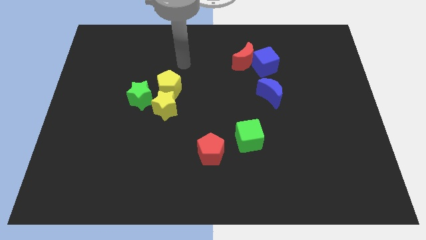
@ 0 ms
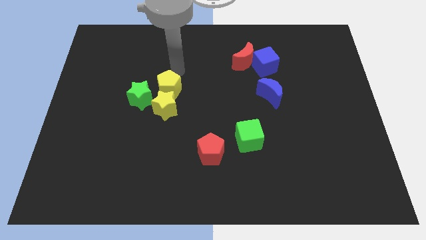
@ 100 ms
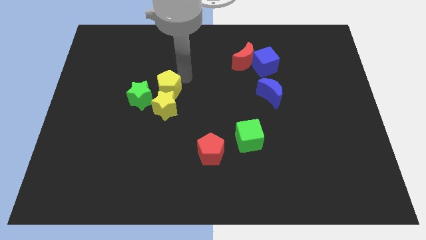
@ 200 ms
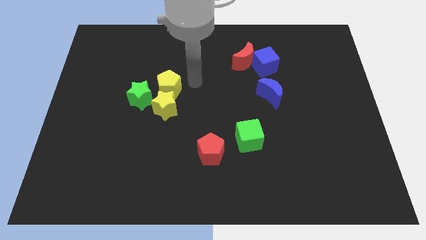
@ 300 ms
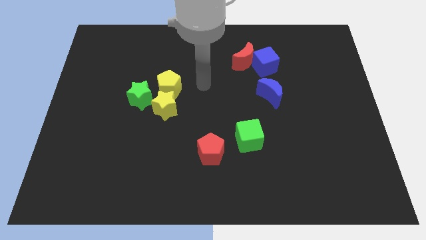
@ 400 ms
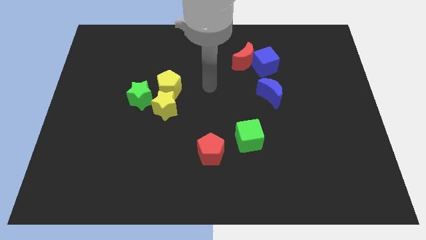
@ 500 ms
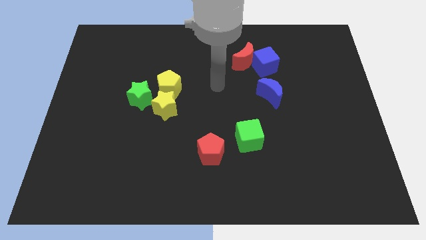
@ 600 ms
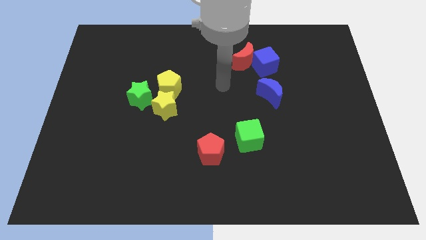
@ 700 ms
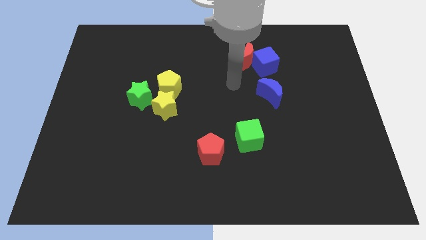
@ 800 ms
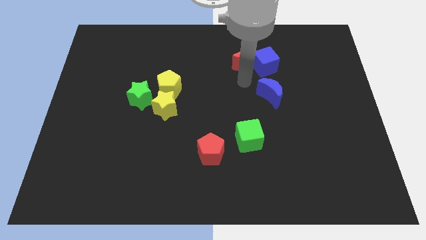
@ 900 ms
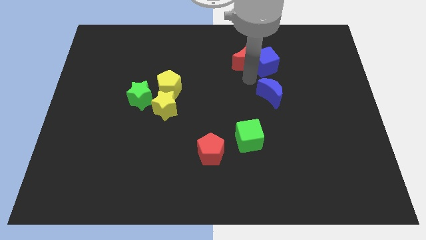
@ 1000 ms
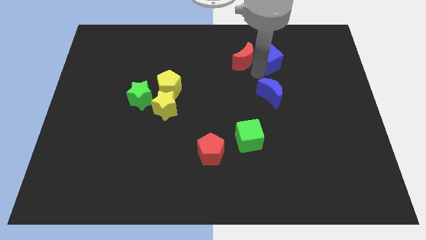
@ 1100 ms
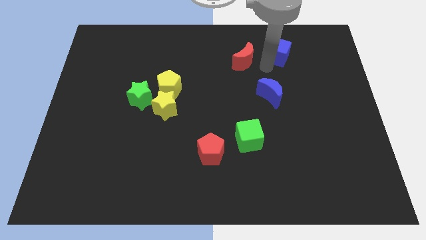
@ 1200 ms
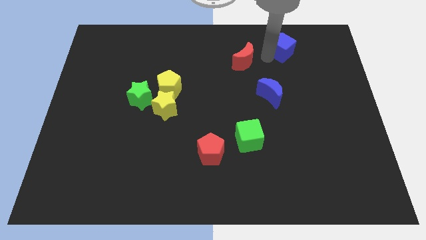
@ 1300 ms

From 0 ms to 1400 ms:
move the red moon away from the blue cube

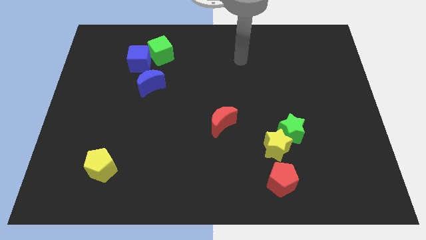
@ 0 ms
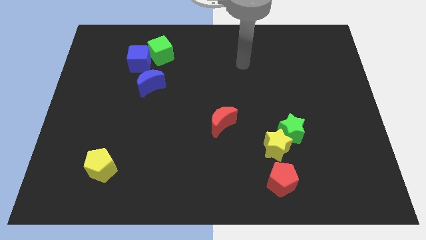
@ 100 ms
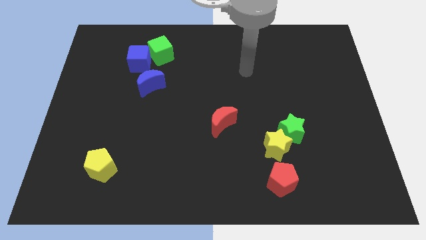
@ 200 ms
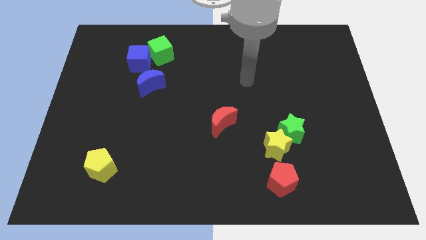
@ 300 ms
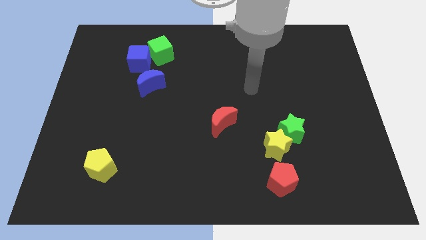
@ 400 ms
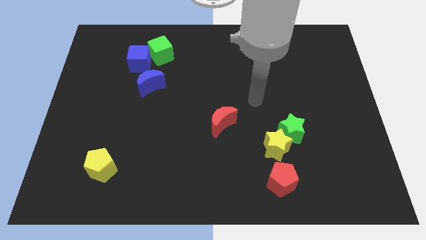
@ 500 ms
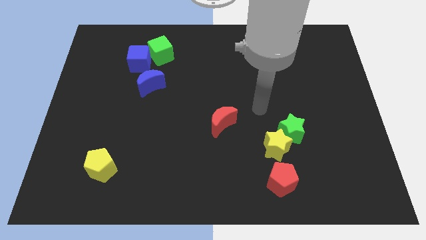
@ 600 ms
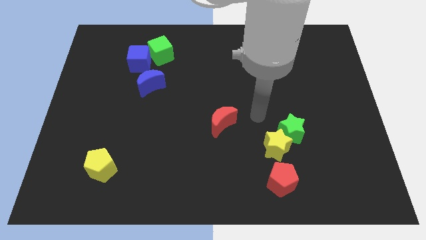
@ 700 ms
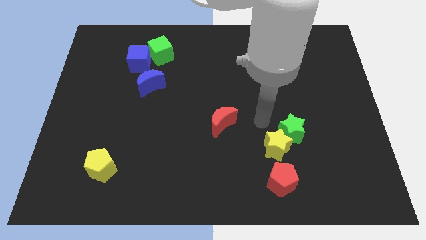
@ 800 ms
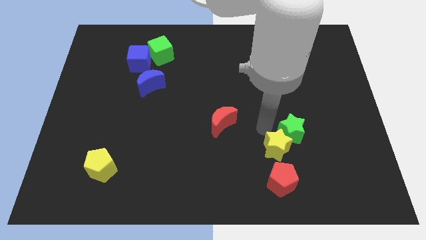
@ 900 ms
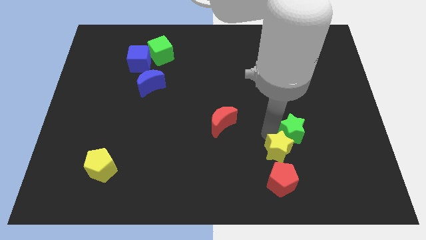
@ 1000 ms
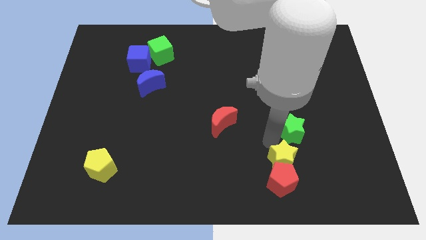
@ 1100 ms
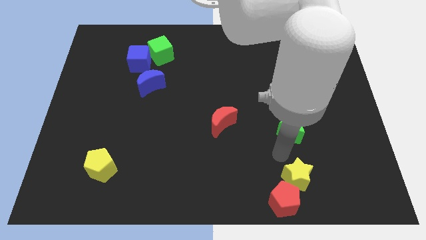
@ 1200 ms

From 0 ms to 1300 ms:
move the green star away from the yellow star

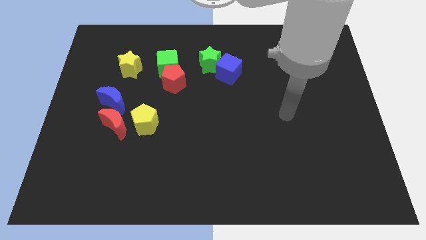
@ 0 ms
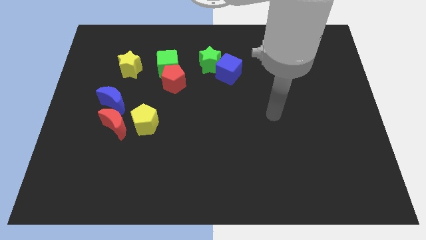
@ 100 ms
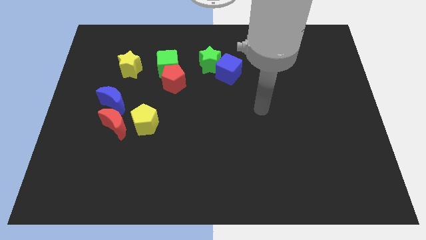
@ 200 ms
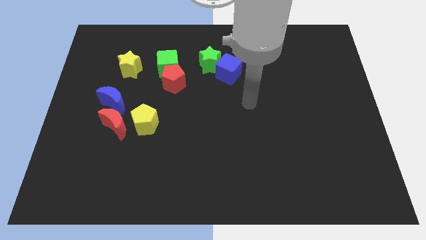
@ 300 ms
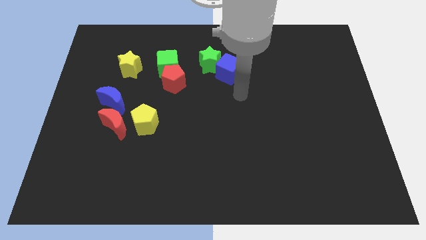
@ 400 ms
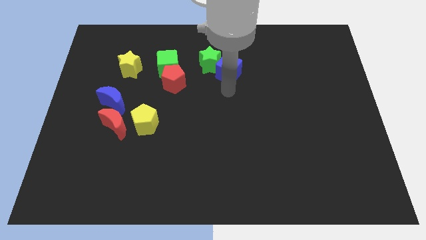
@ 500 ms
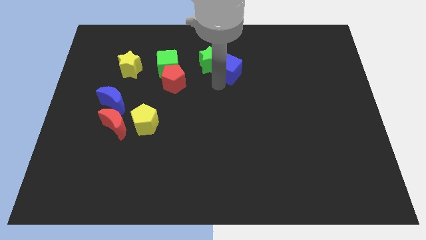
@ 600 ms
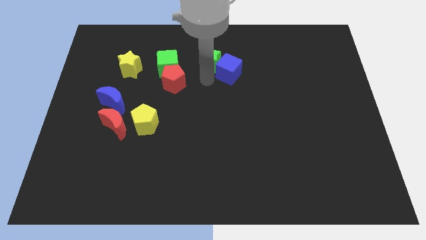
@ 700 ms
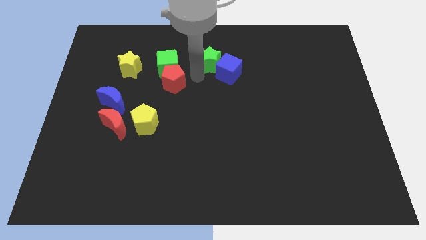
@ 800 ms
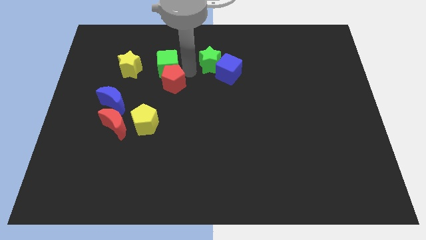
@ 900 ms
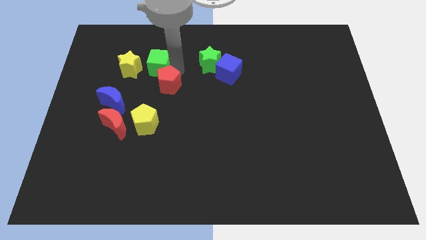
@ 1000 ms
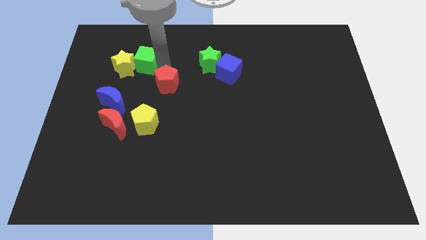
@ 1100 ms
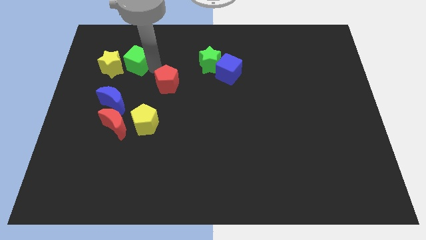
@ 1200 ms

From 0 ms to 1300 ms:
move the red pentagon away from the green cube

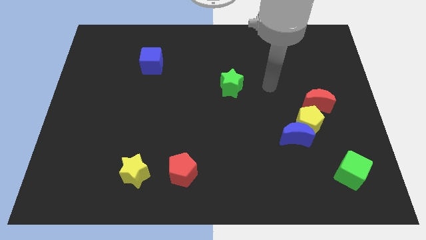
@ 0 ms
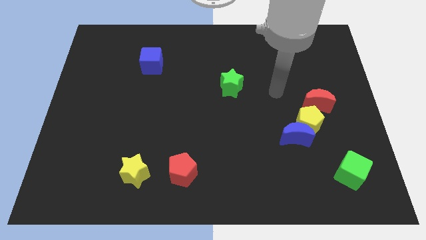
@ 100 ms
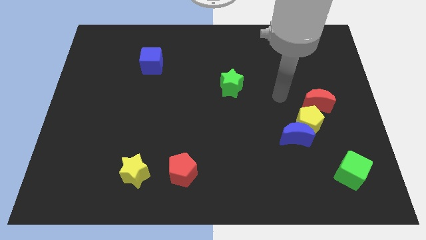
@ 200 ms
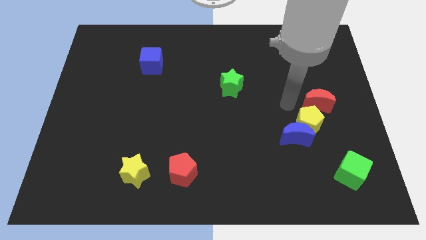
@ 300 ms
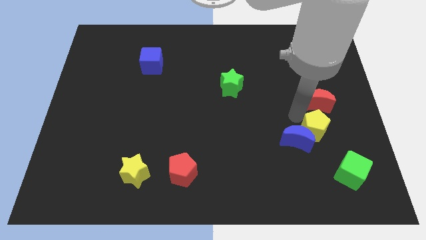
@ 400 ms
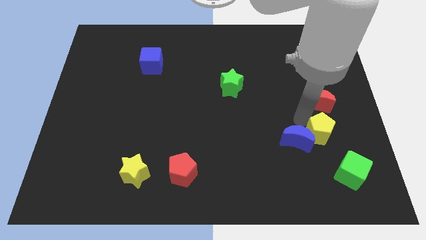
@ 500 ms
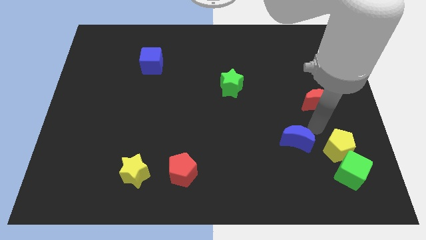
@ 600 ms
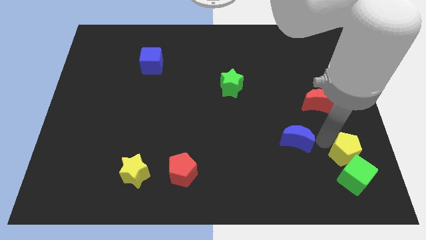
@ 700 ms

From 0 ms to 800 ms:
separate the blue moon from the yellow pentagon

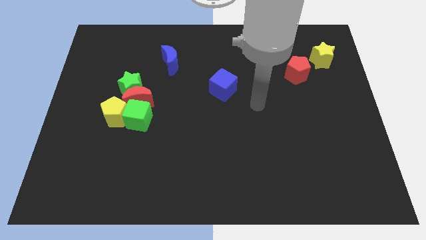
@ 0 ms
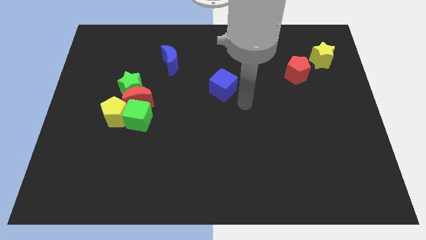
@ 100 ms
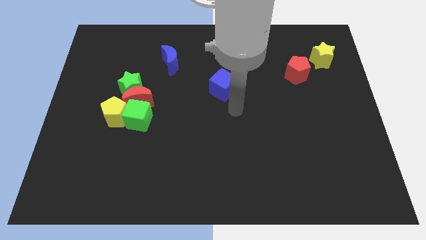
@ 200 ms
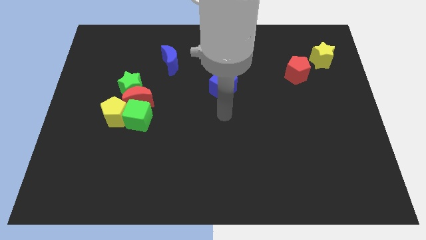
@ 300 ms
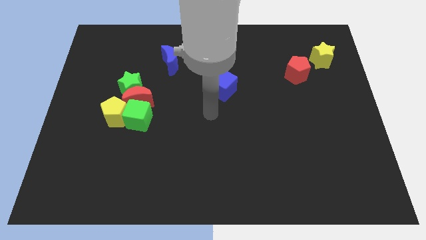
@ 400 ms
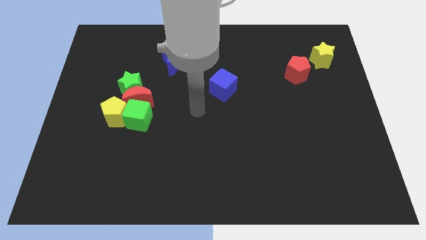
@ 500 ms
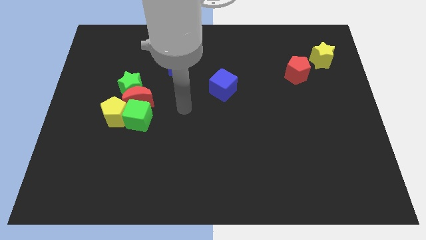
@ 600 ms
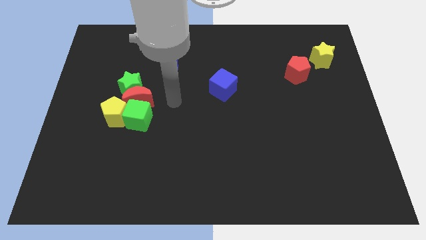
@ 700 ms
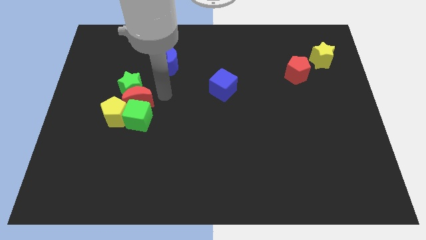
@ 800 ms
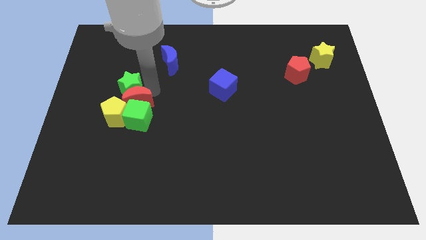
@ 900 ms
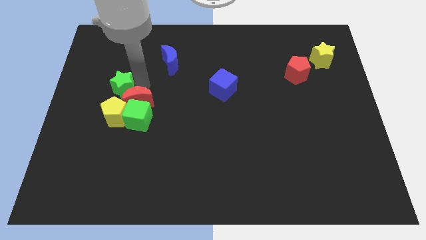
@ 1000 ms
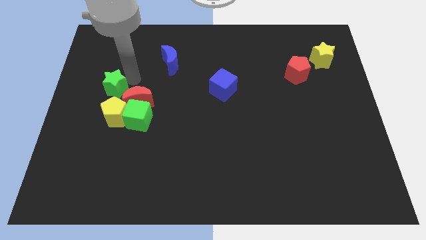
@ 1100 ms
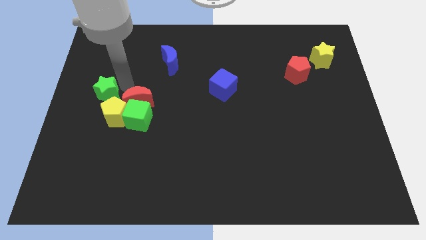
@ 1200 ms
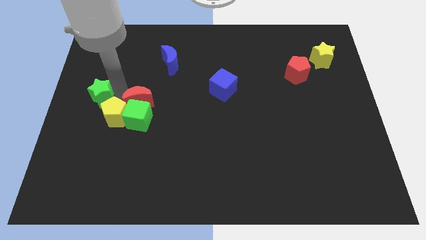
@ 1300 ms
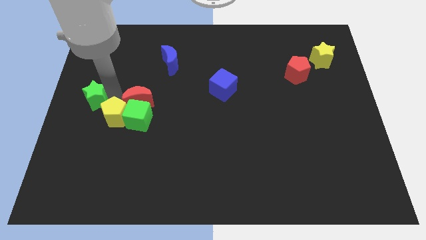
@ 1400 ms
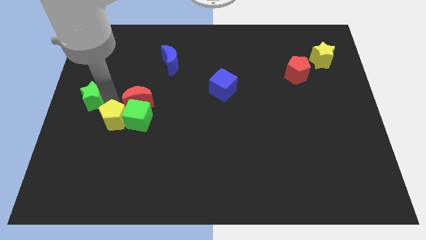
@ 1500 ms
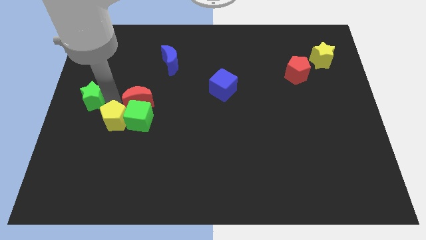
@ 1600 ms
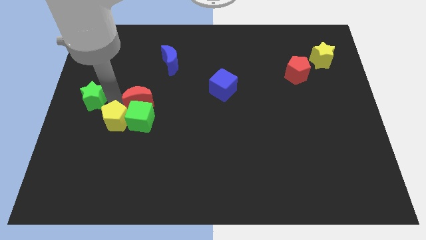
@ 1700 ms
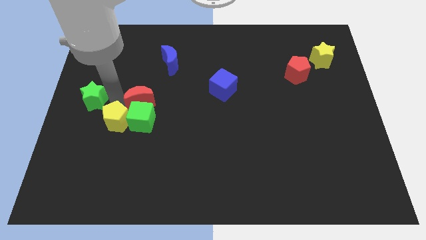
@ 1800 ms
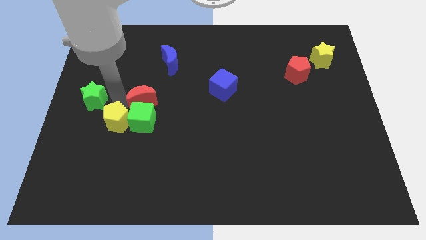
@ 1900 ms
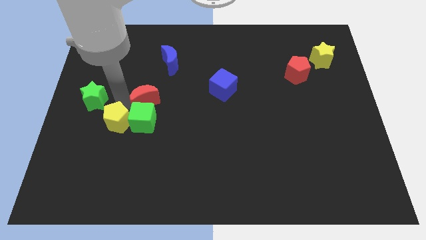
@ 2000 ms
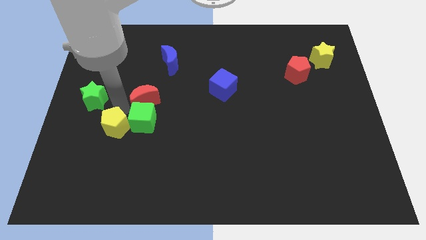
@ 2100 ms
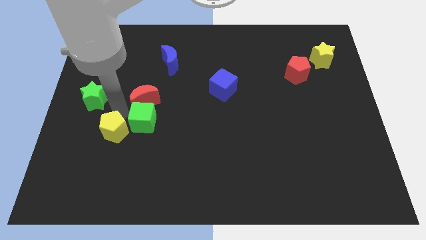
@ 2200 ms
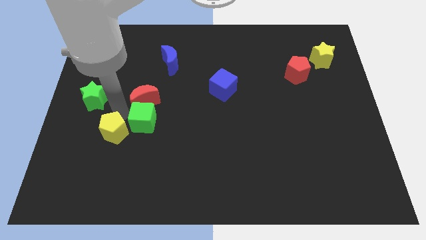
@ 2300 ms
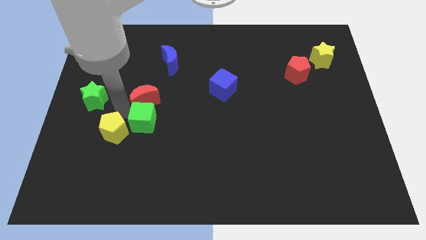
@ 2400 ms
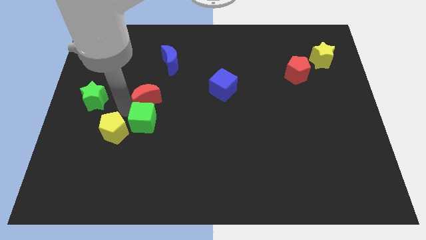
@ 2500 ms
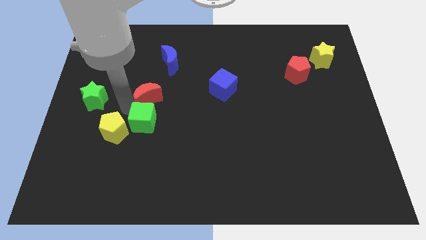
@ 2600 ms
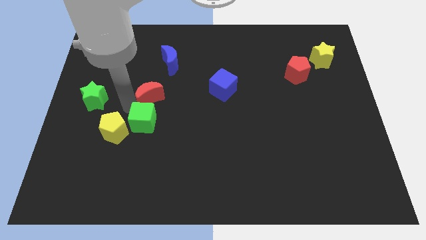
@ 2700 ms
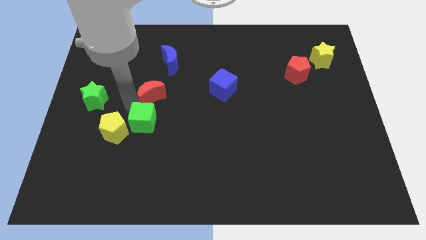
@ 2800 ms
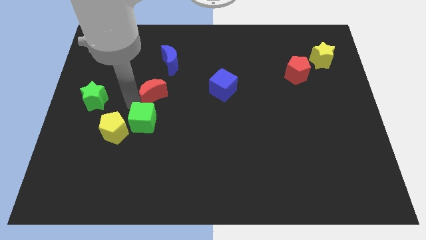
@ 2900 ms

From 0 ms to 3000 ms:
move the red moon away from the clump

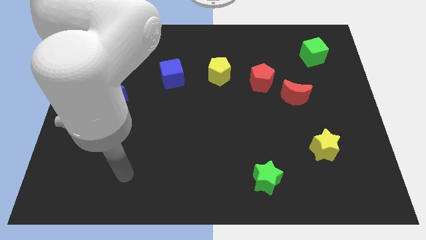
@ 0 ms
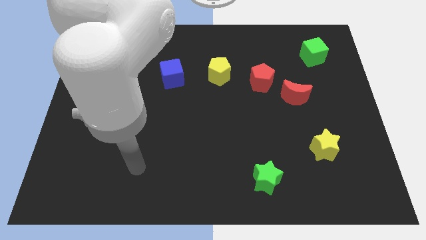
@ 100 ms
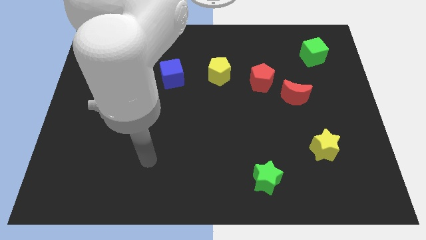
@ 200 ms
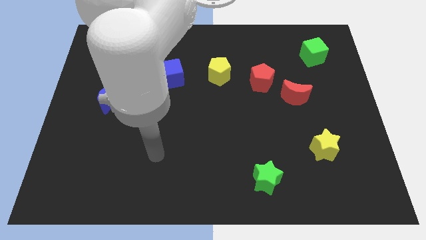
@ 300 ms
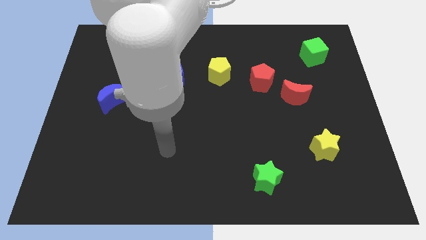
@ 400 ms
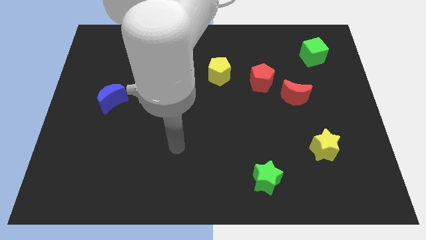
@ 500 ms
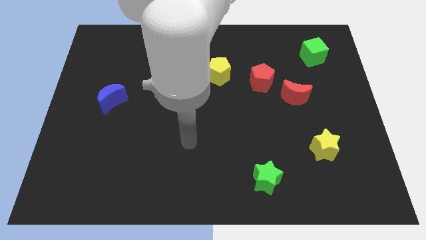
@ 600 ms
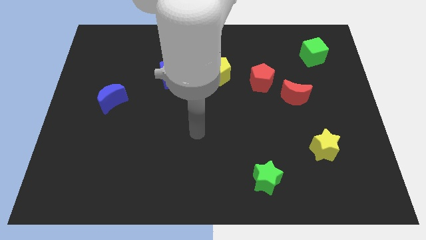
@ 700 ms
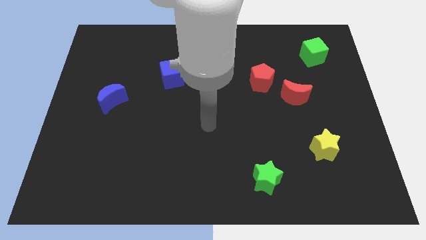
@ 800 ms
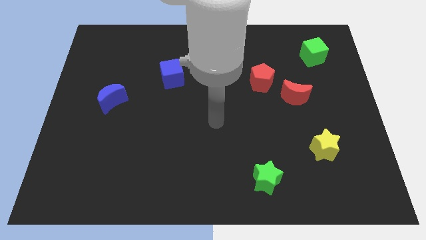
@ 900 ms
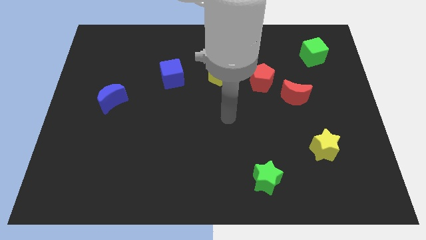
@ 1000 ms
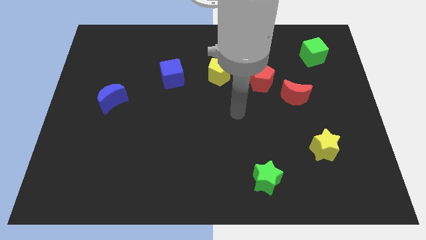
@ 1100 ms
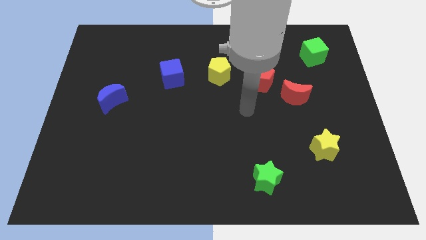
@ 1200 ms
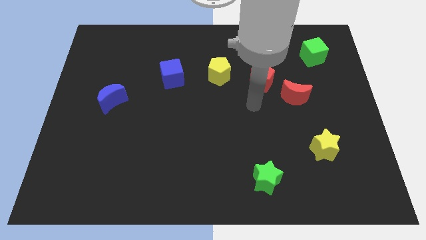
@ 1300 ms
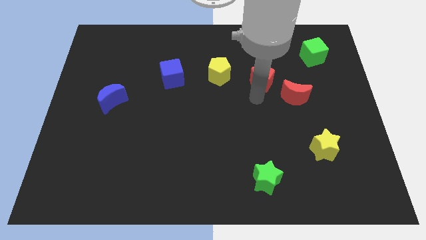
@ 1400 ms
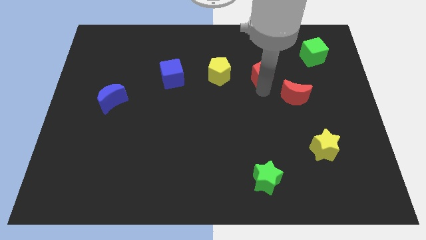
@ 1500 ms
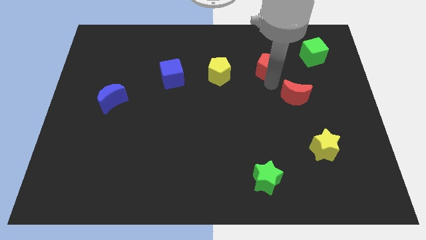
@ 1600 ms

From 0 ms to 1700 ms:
separate the red moon from the red pentagon
